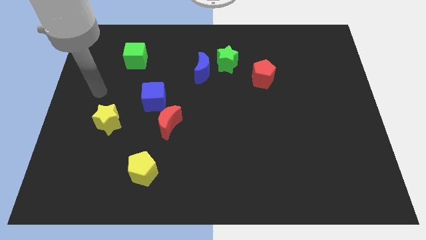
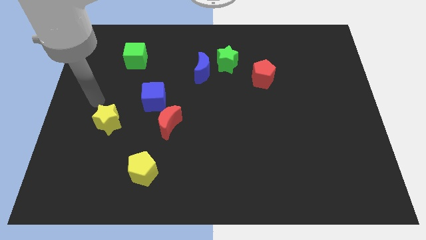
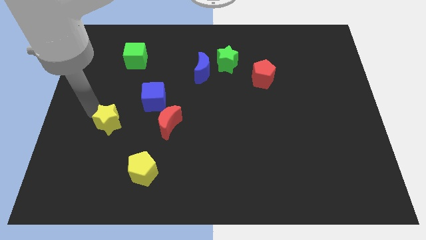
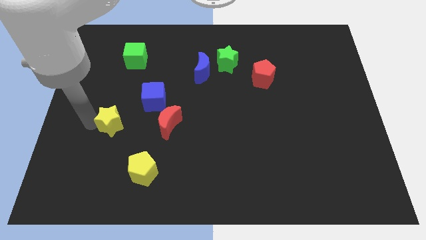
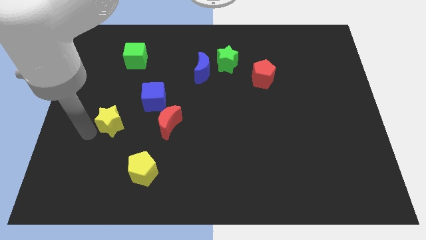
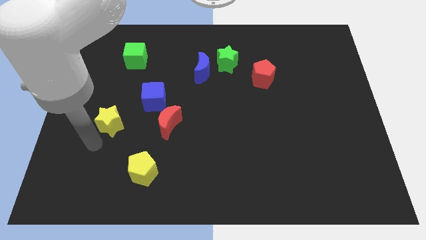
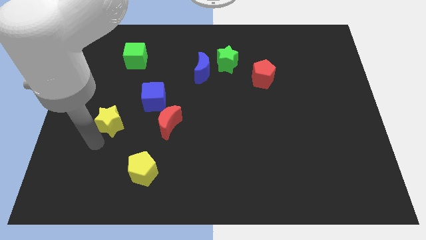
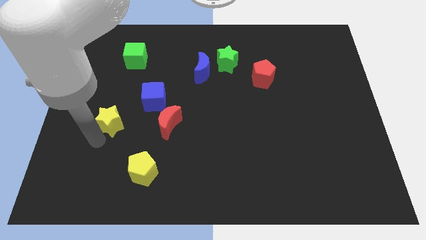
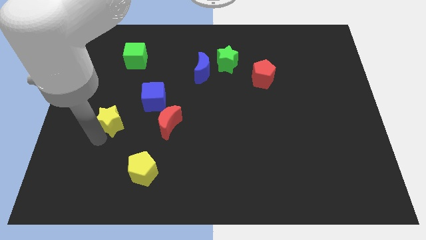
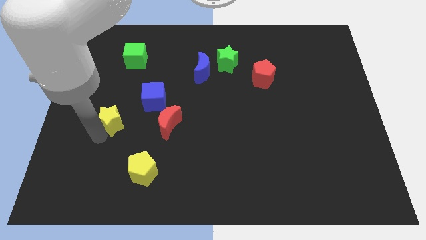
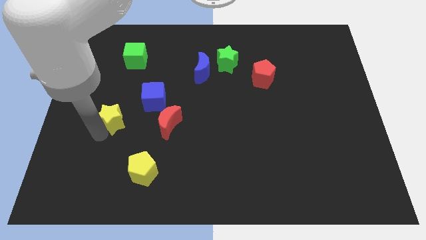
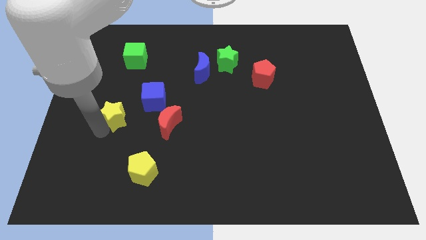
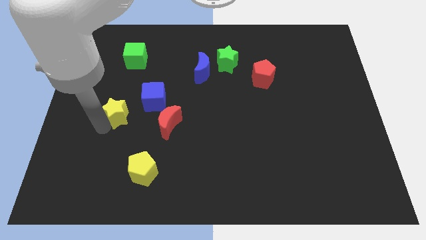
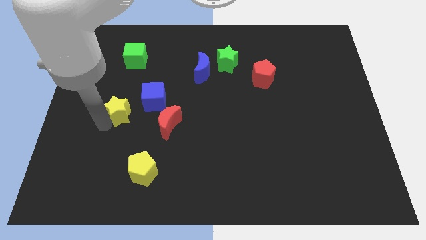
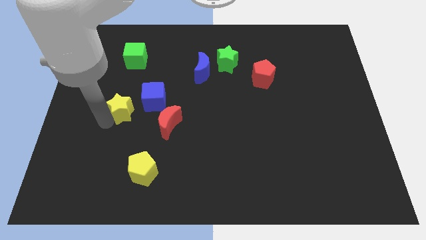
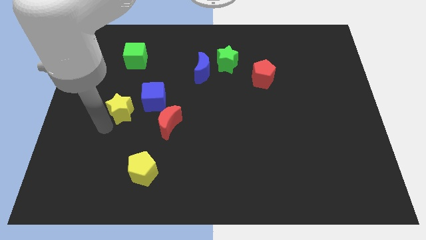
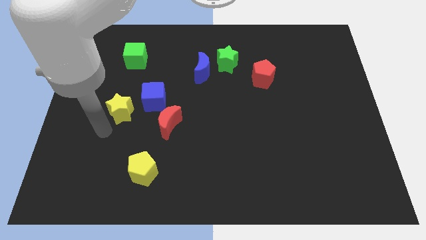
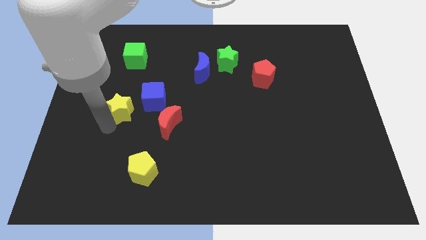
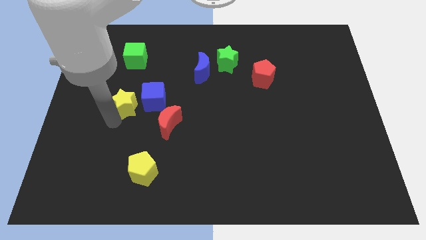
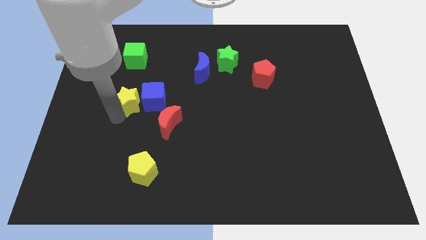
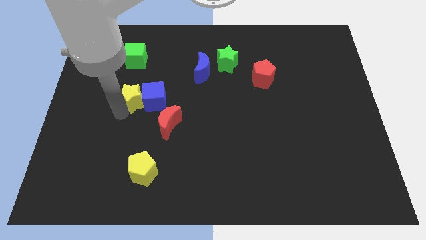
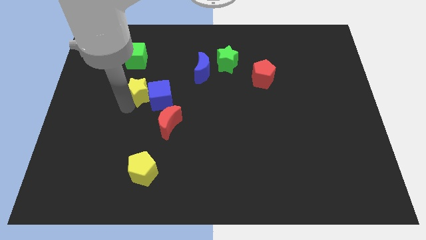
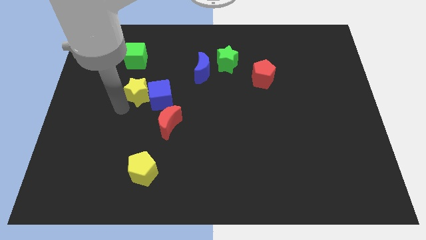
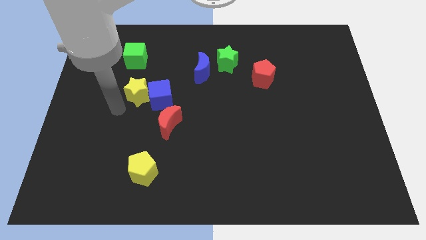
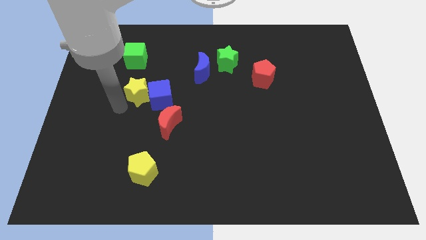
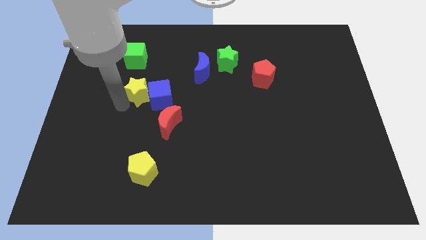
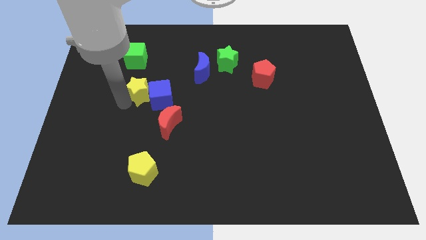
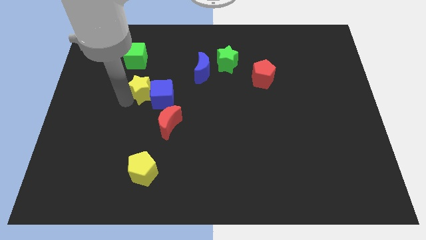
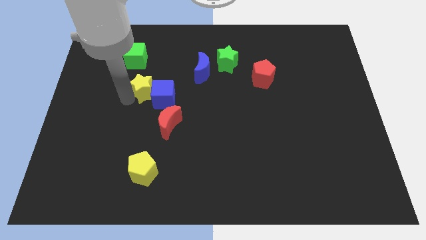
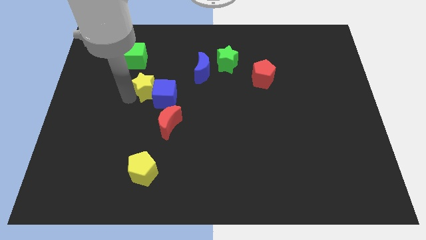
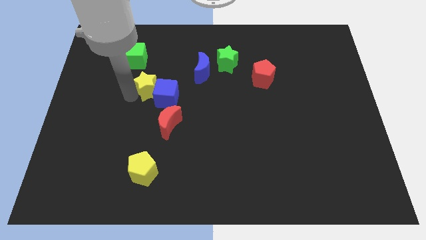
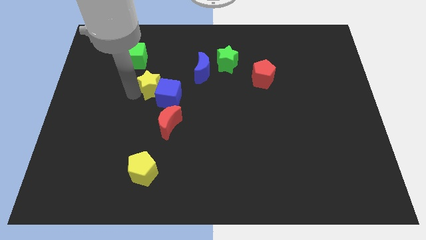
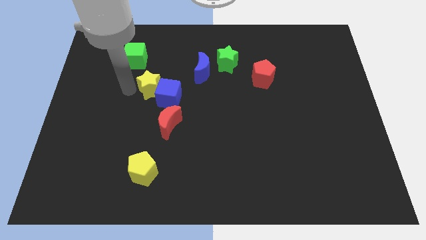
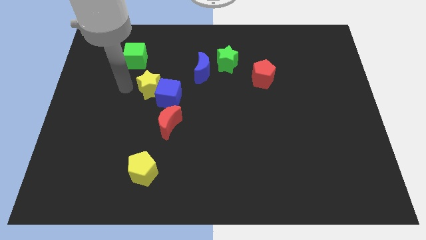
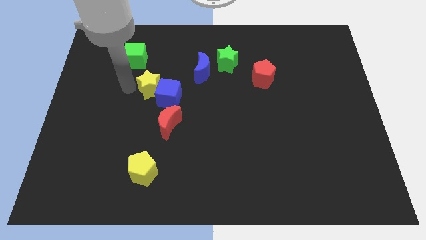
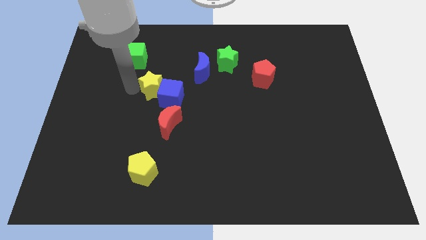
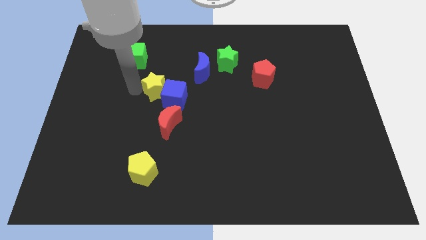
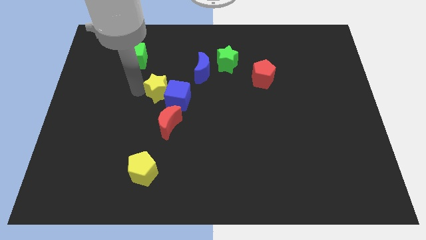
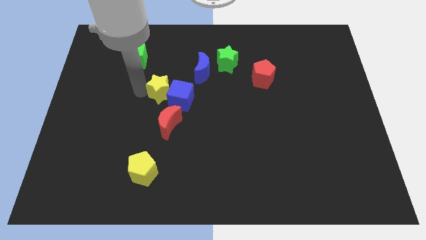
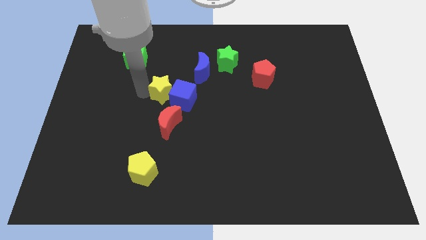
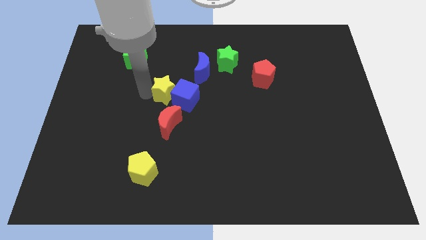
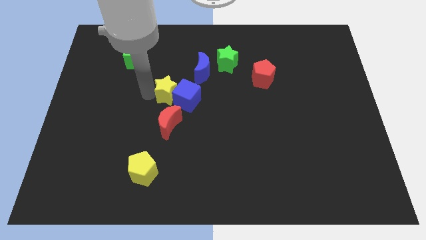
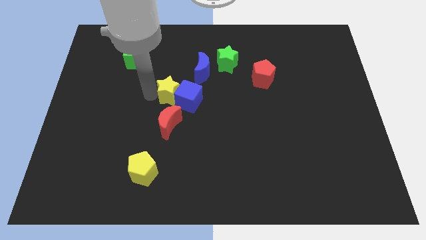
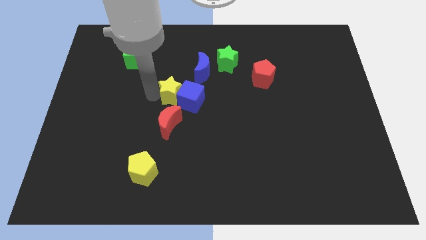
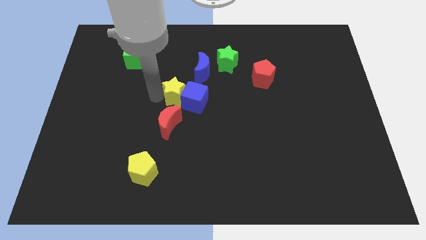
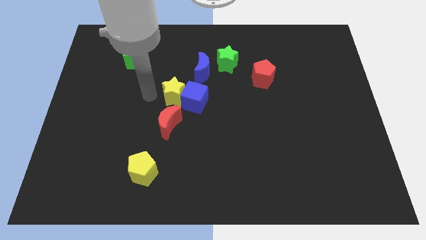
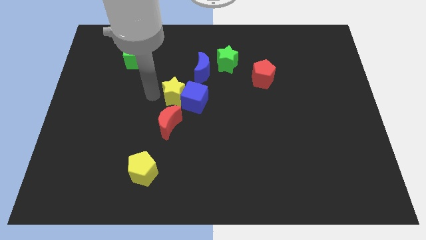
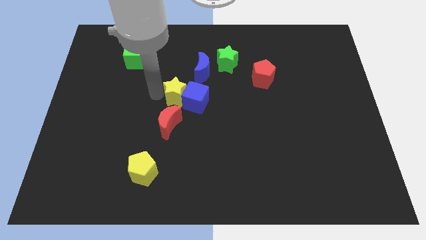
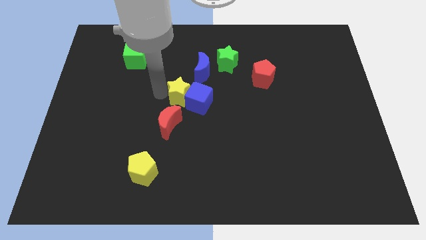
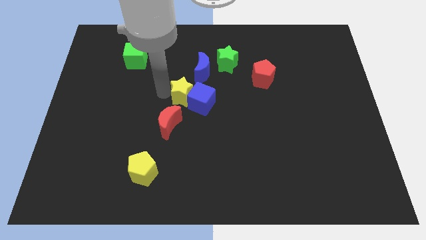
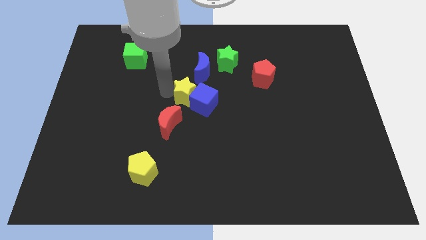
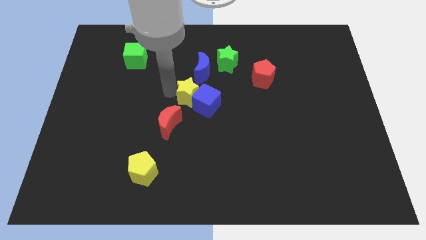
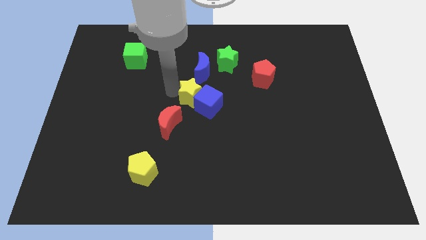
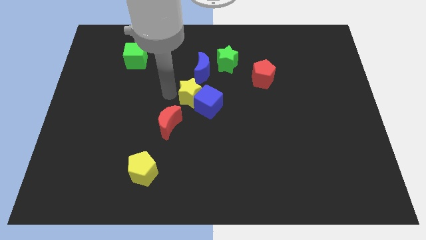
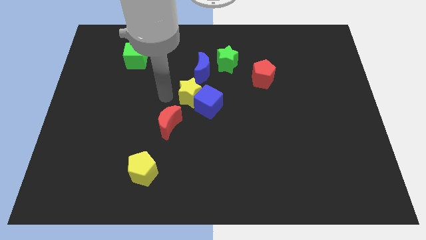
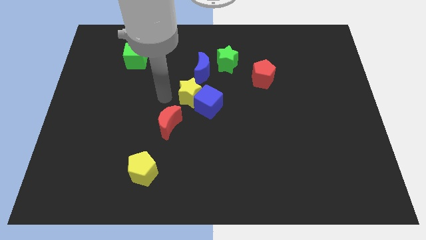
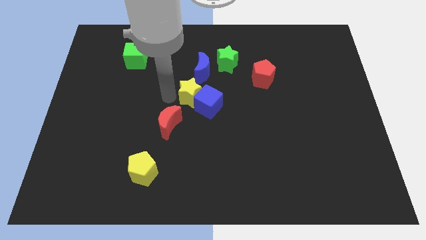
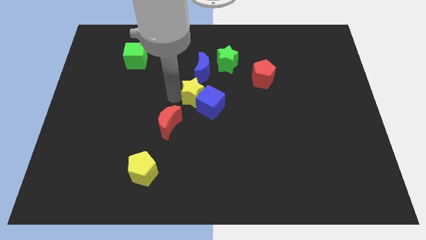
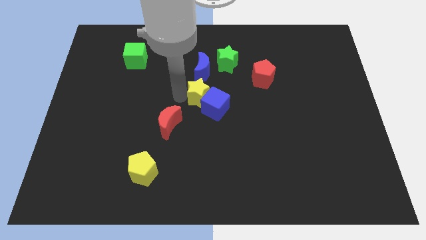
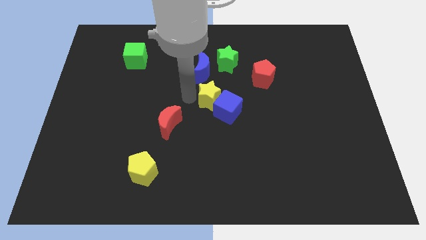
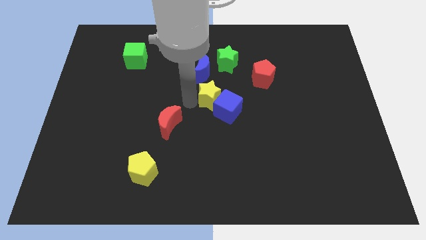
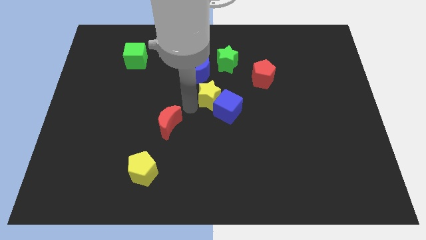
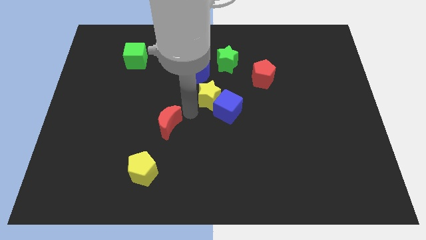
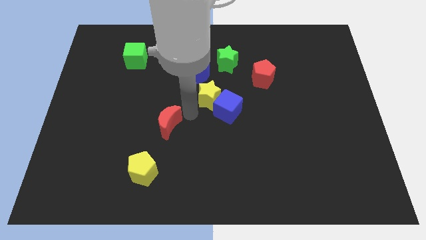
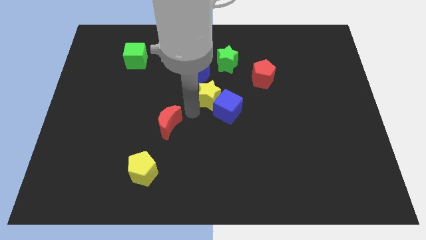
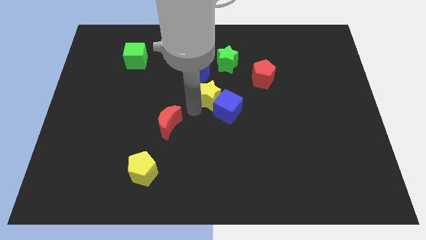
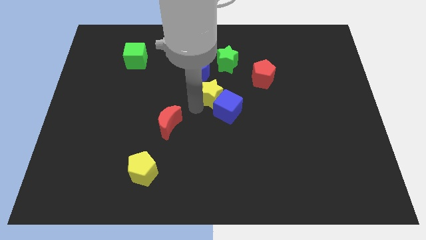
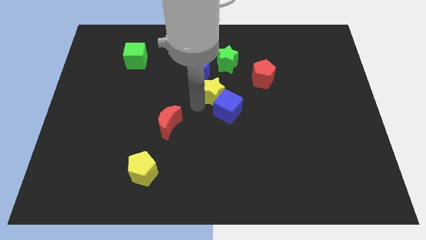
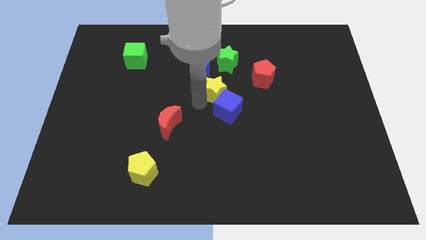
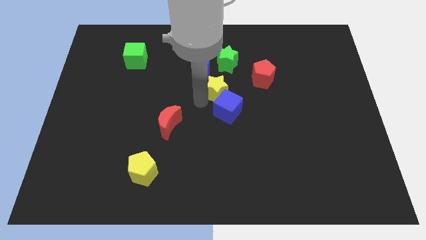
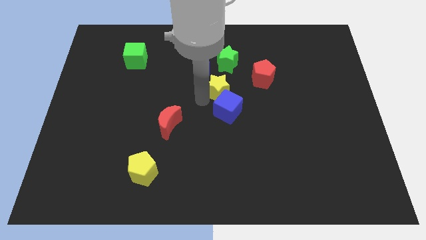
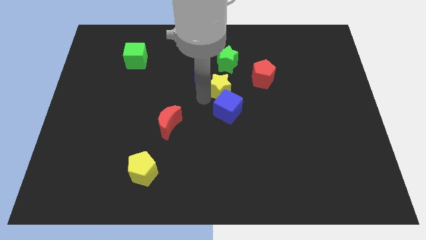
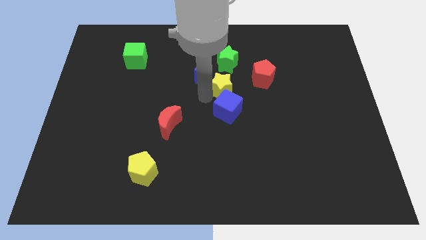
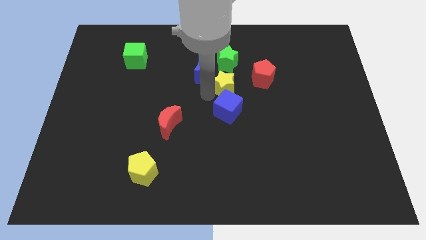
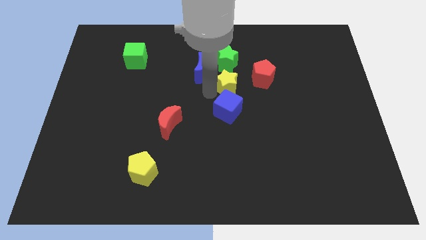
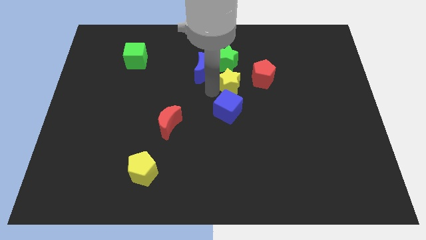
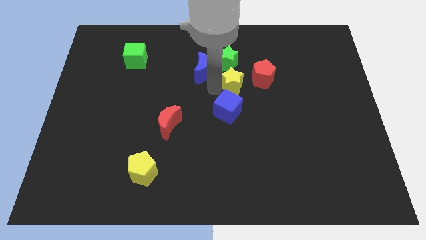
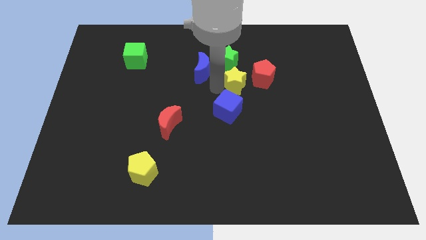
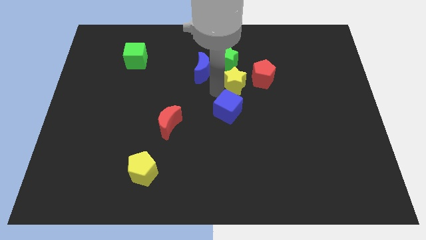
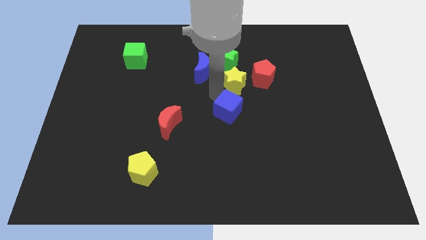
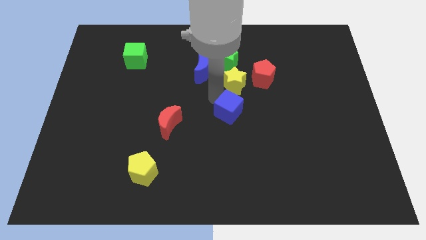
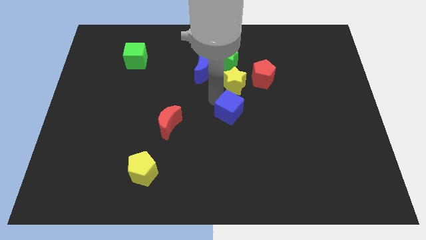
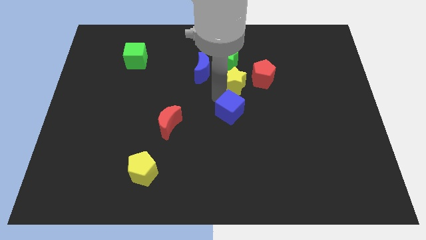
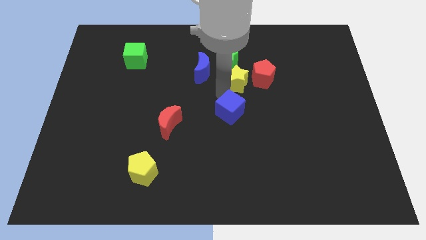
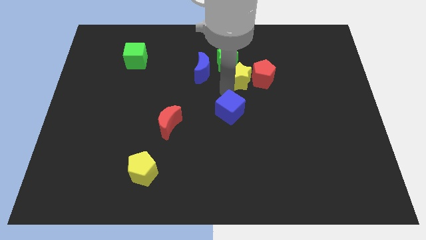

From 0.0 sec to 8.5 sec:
move the yellow star towards the red pentagon
